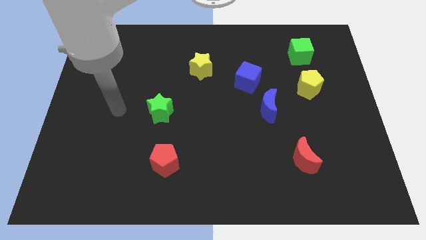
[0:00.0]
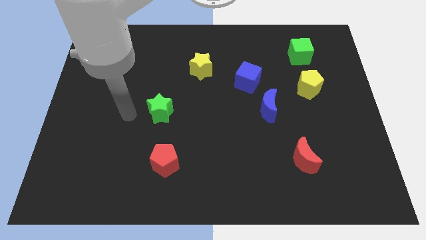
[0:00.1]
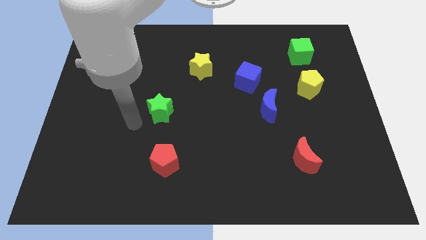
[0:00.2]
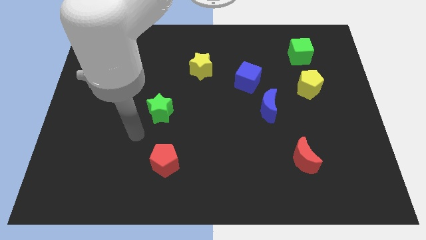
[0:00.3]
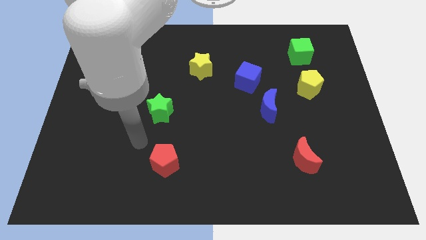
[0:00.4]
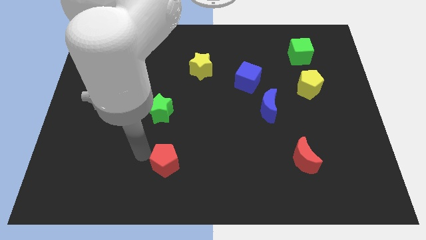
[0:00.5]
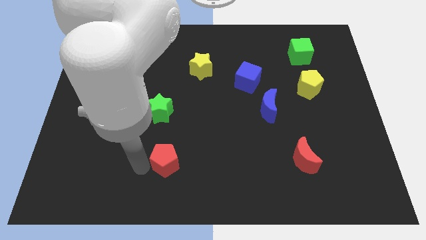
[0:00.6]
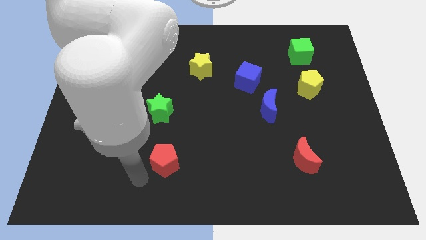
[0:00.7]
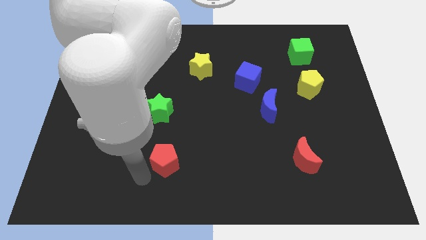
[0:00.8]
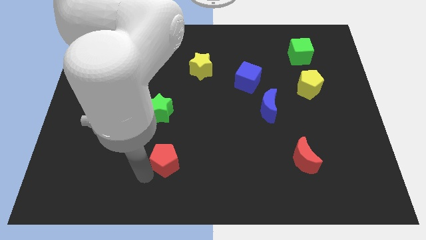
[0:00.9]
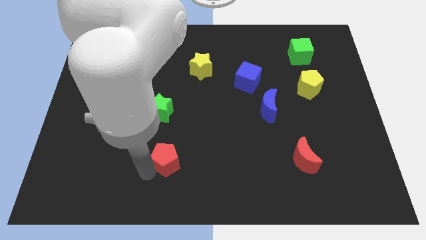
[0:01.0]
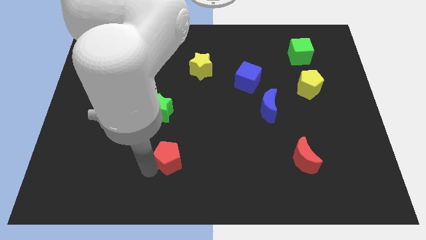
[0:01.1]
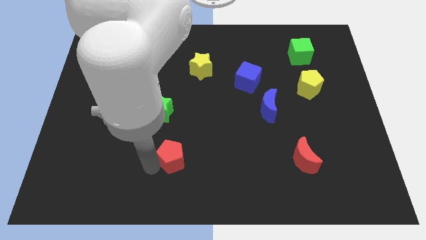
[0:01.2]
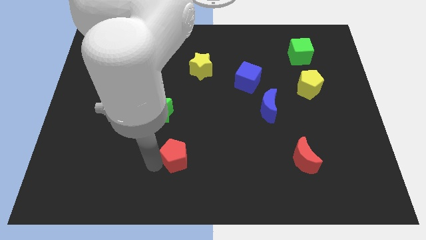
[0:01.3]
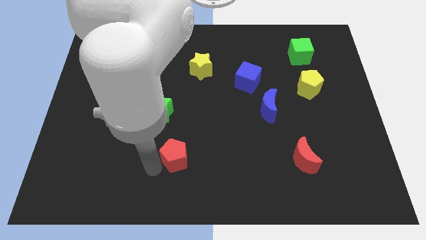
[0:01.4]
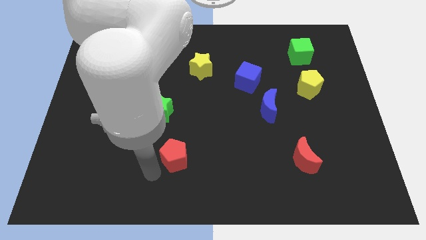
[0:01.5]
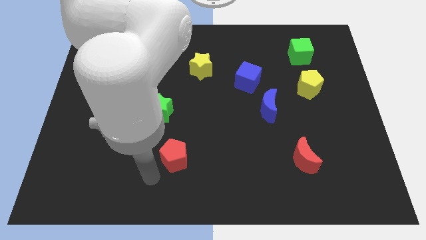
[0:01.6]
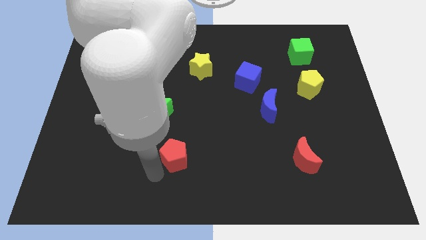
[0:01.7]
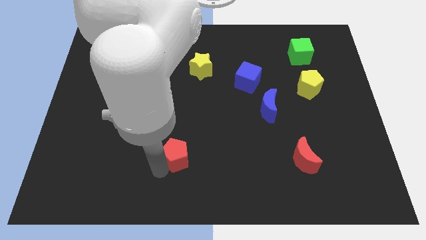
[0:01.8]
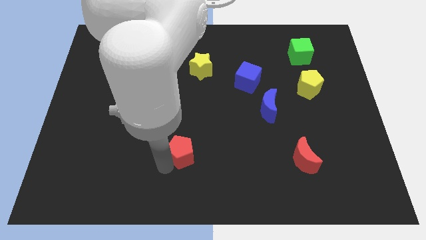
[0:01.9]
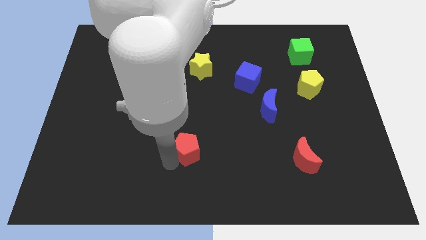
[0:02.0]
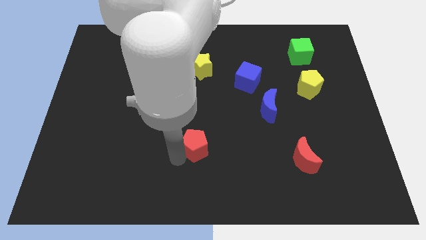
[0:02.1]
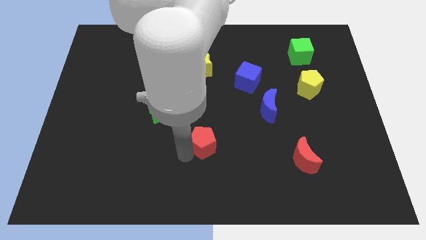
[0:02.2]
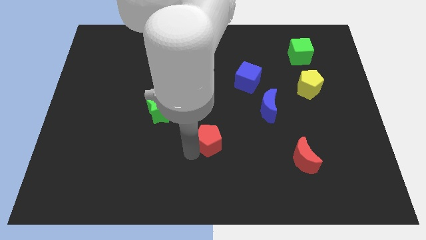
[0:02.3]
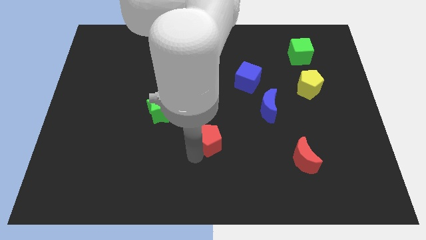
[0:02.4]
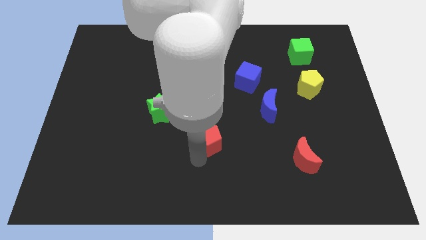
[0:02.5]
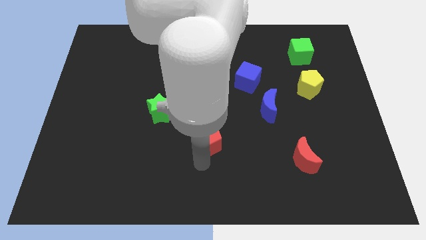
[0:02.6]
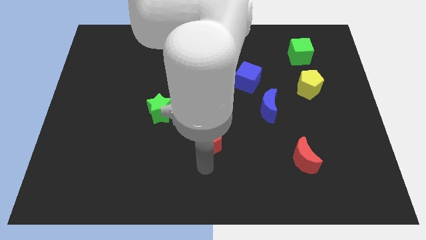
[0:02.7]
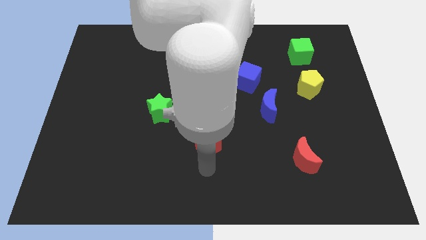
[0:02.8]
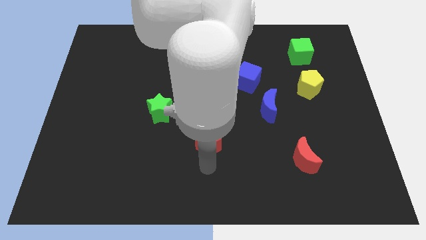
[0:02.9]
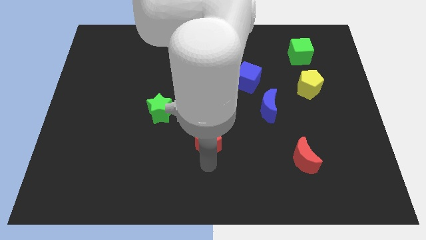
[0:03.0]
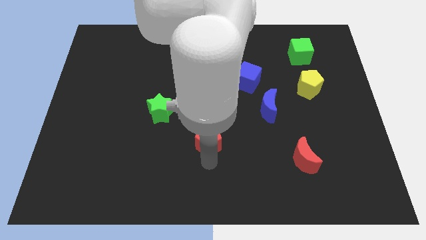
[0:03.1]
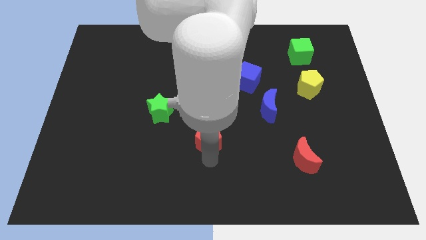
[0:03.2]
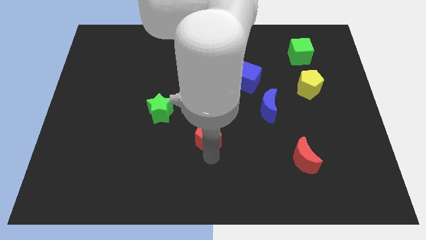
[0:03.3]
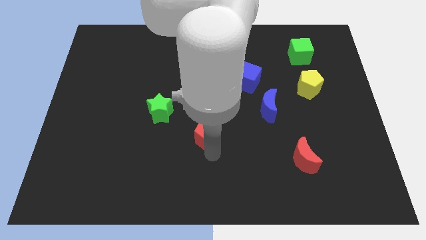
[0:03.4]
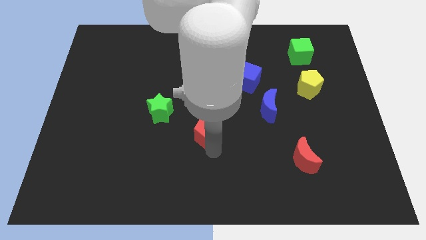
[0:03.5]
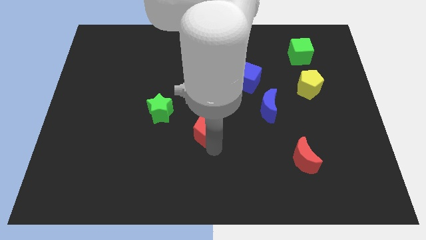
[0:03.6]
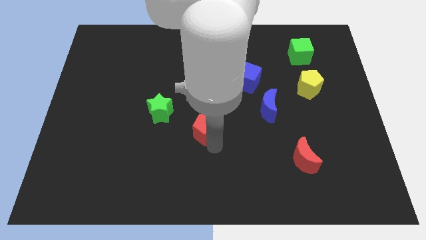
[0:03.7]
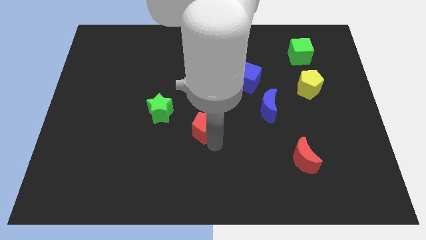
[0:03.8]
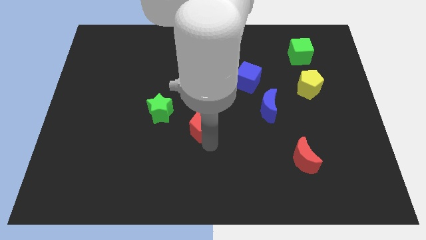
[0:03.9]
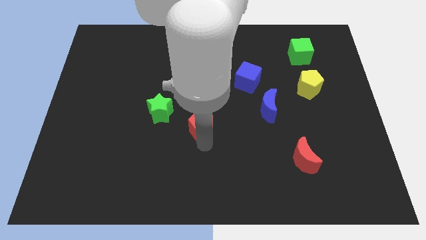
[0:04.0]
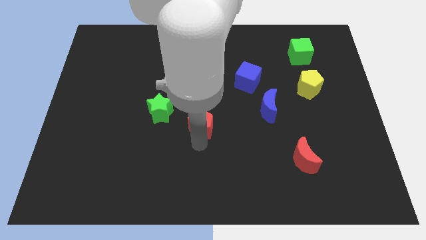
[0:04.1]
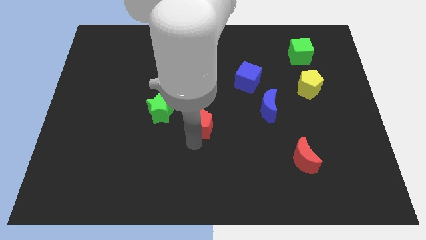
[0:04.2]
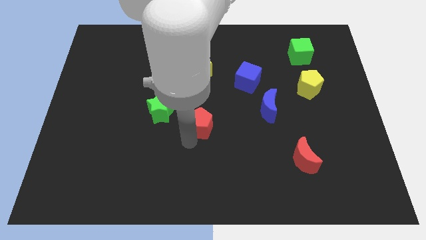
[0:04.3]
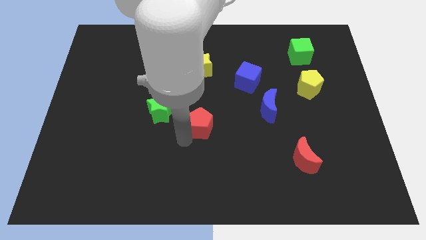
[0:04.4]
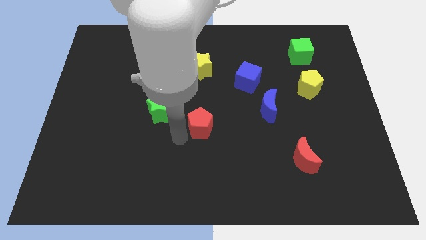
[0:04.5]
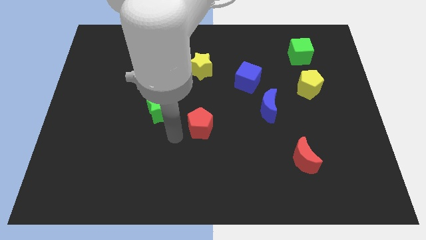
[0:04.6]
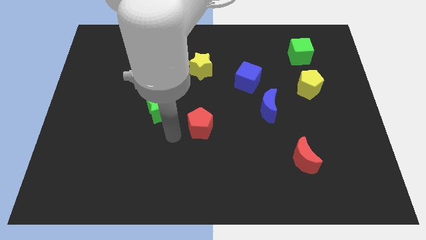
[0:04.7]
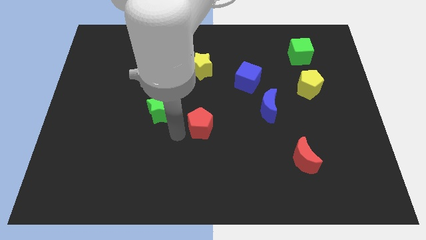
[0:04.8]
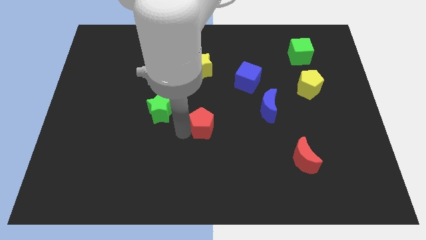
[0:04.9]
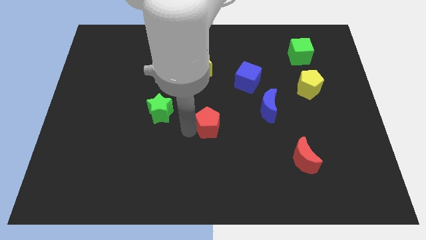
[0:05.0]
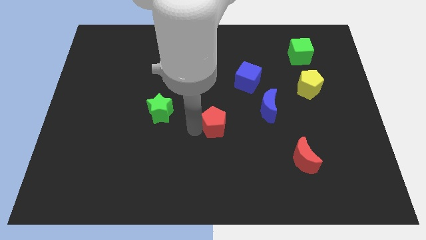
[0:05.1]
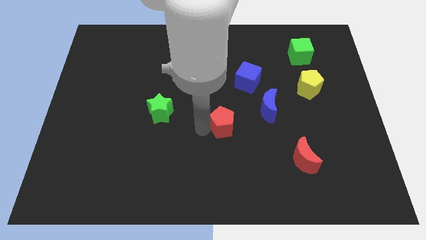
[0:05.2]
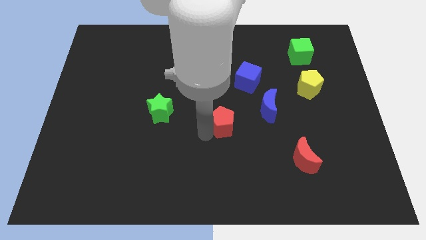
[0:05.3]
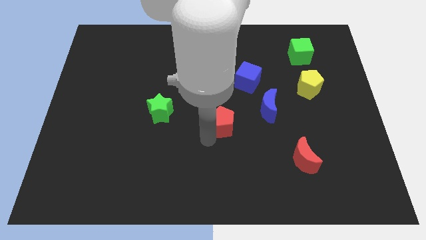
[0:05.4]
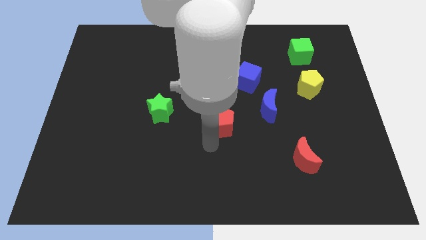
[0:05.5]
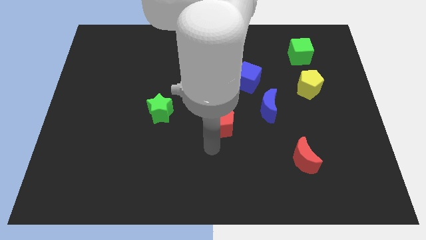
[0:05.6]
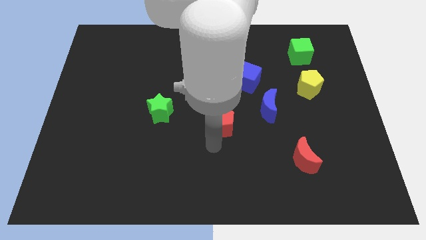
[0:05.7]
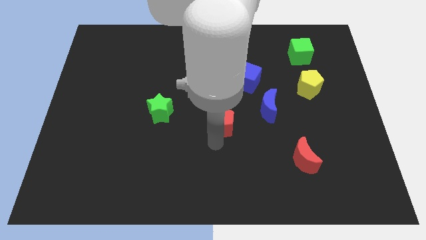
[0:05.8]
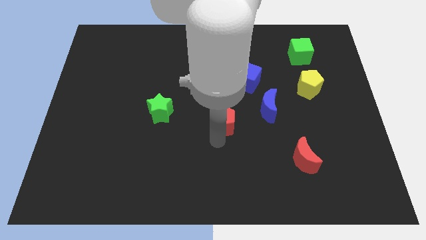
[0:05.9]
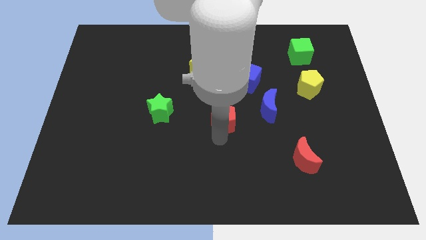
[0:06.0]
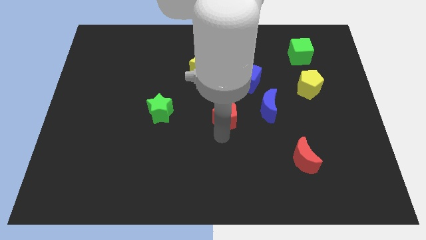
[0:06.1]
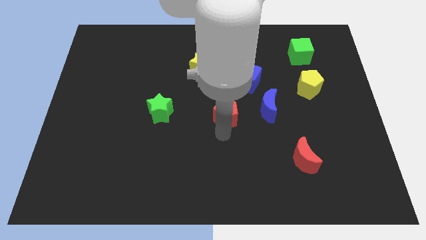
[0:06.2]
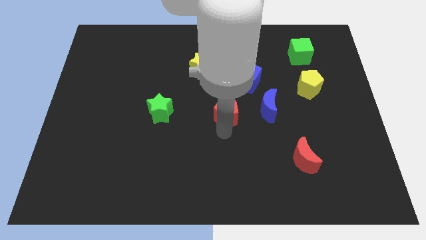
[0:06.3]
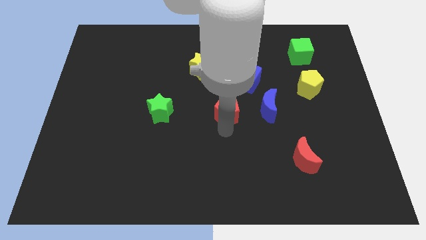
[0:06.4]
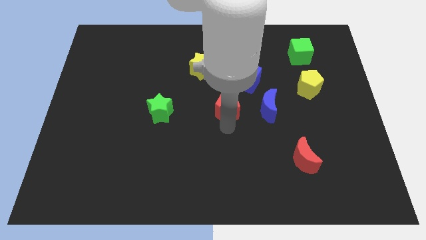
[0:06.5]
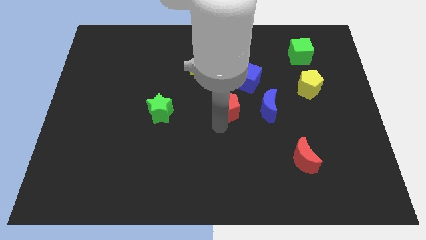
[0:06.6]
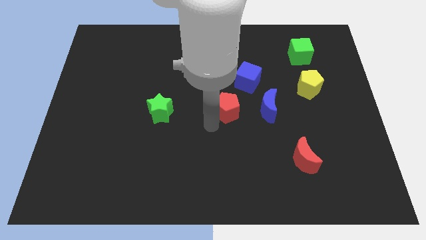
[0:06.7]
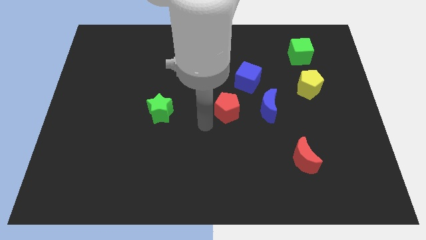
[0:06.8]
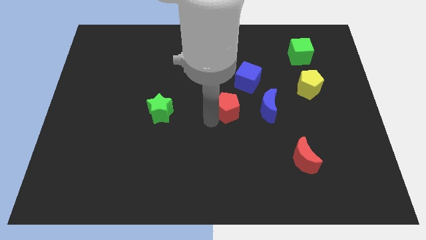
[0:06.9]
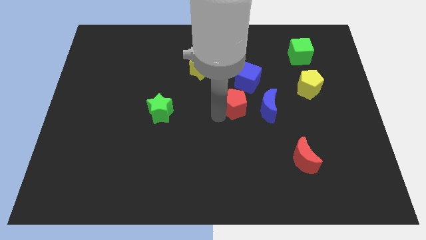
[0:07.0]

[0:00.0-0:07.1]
push the red pentagon upwards and then right

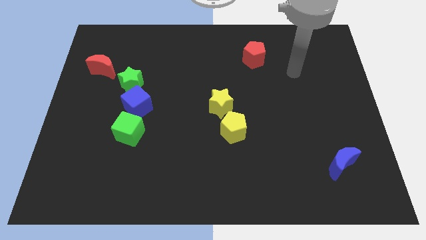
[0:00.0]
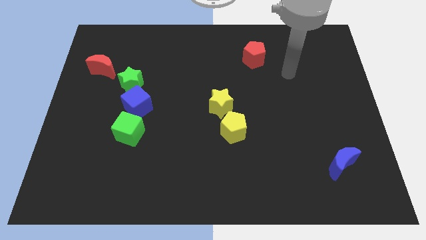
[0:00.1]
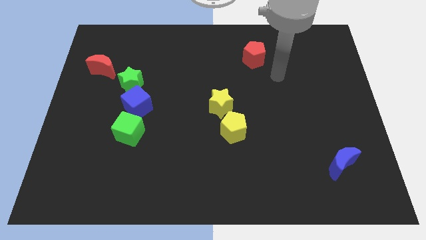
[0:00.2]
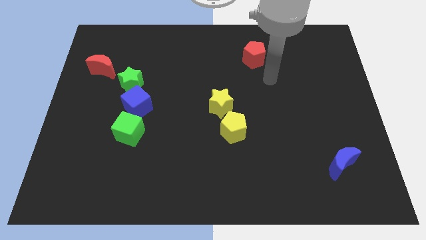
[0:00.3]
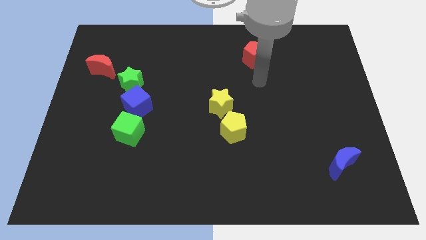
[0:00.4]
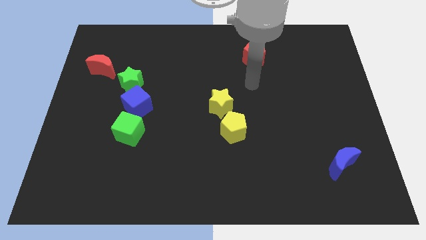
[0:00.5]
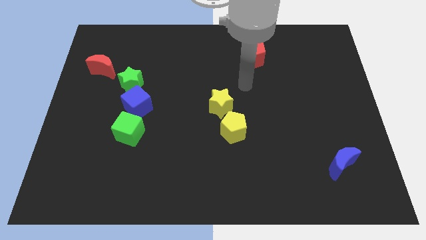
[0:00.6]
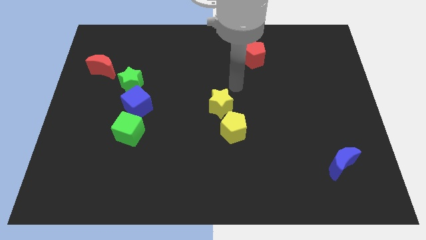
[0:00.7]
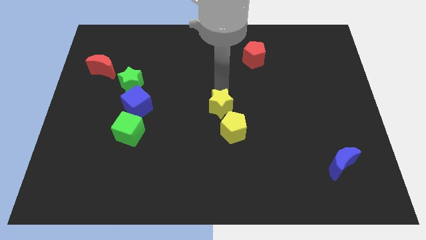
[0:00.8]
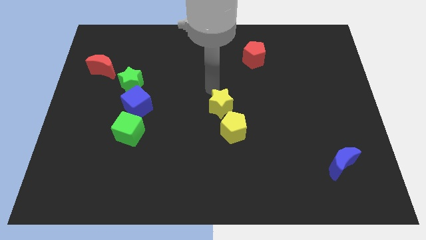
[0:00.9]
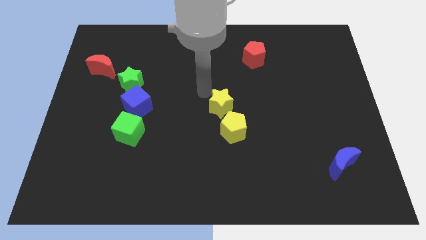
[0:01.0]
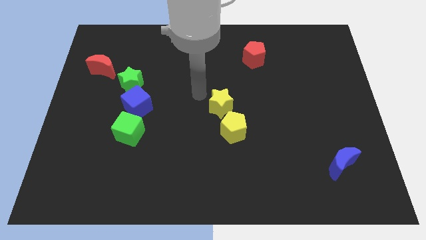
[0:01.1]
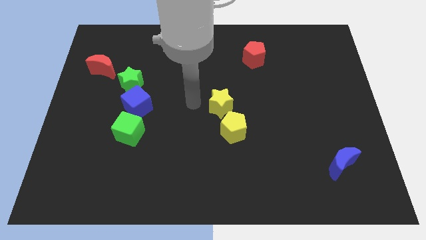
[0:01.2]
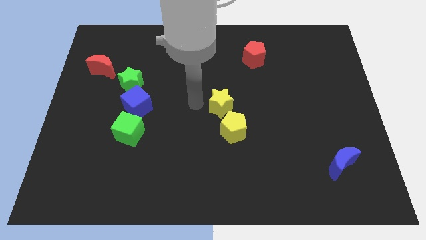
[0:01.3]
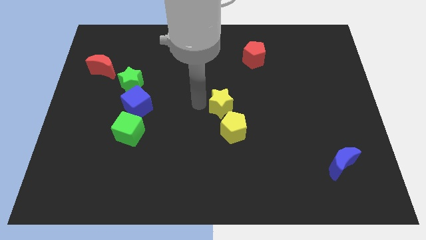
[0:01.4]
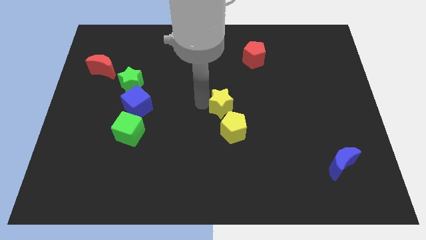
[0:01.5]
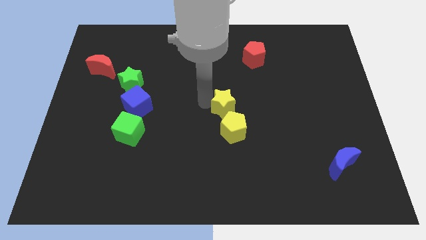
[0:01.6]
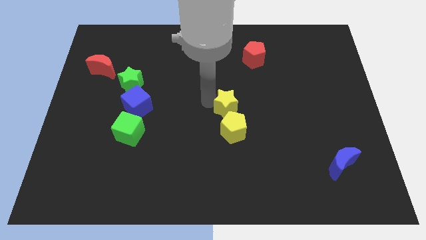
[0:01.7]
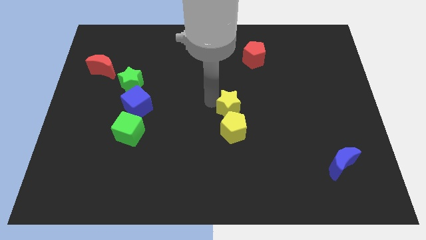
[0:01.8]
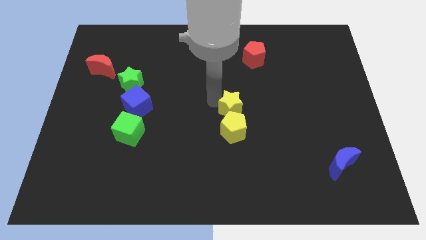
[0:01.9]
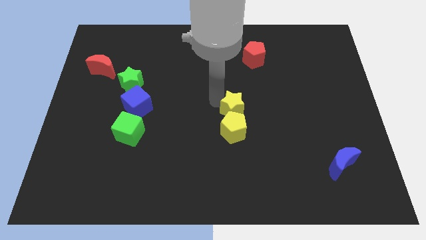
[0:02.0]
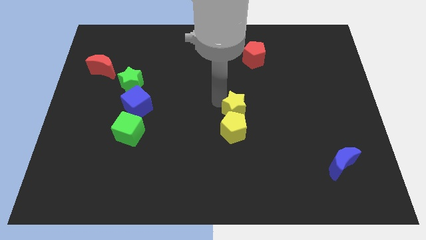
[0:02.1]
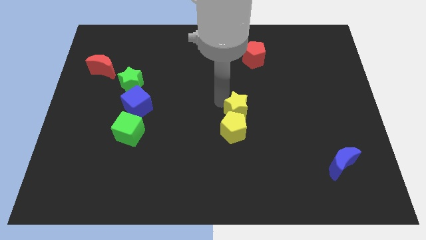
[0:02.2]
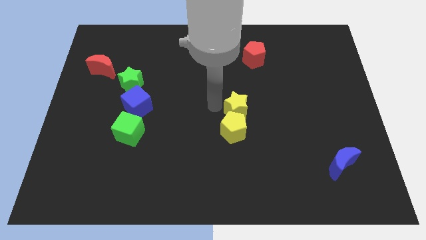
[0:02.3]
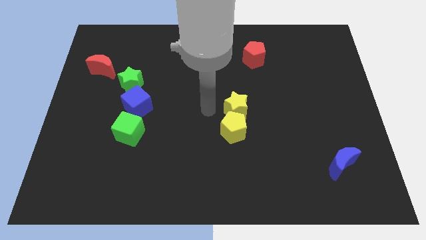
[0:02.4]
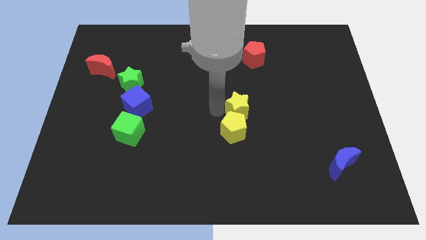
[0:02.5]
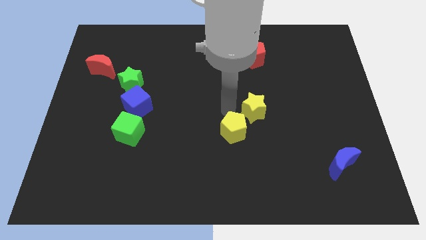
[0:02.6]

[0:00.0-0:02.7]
push the yellow star somewhat to the right
